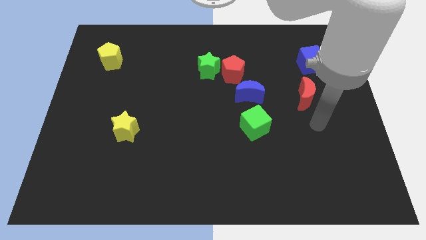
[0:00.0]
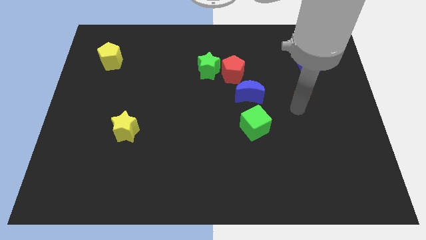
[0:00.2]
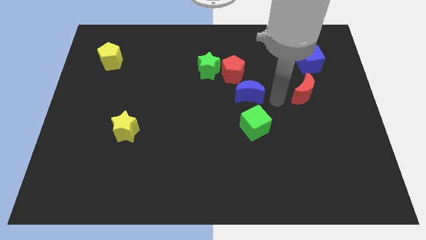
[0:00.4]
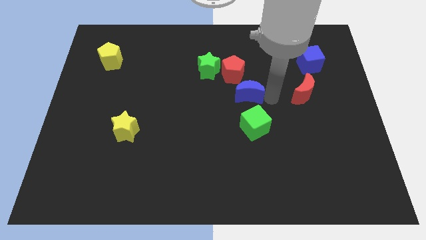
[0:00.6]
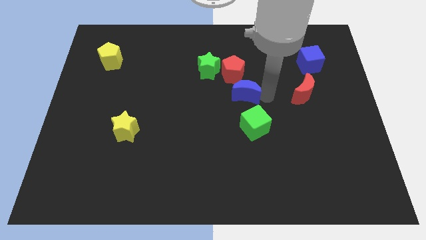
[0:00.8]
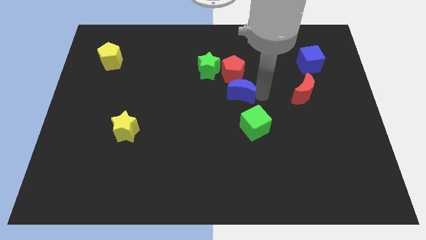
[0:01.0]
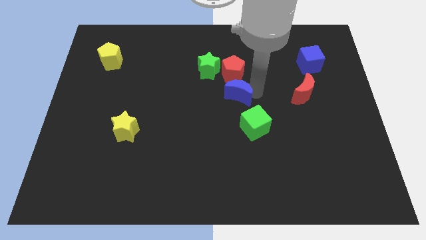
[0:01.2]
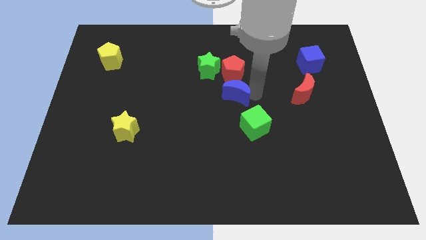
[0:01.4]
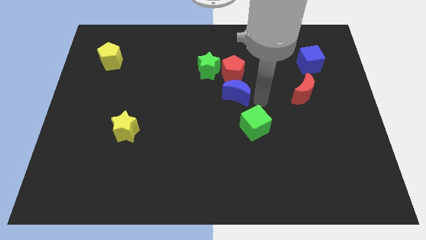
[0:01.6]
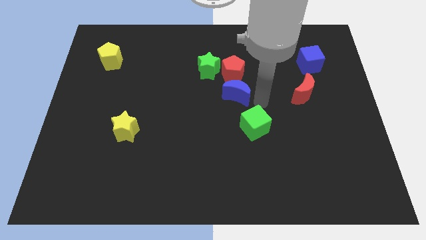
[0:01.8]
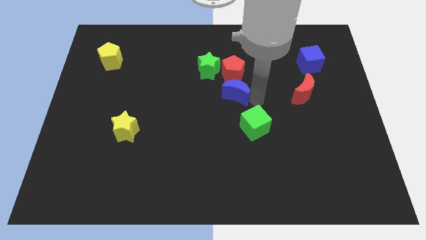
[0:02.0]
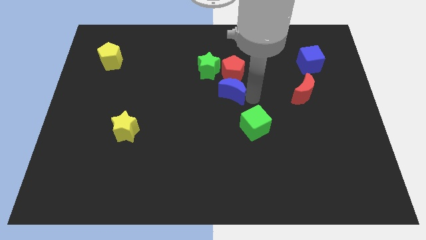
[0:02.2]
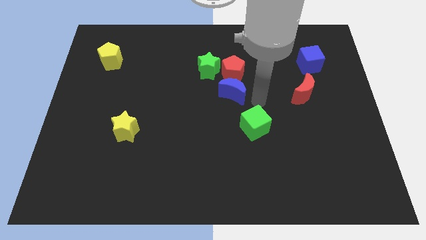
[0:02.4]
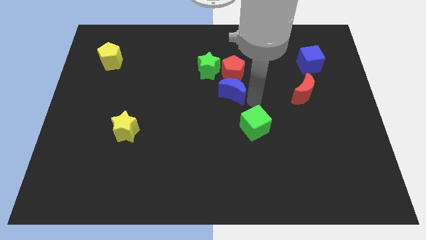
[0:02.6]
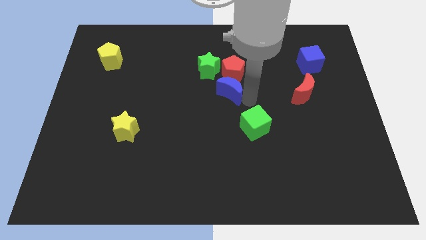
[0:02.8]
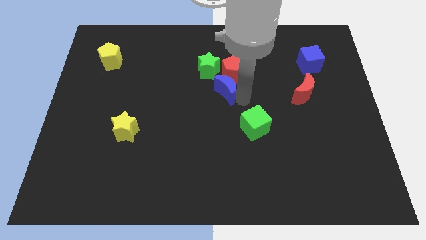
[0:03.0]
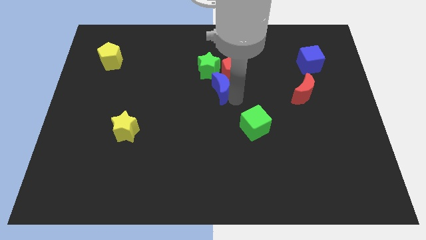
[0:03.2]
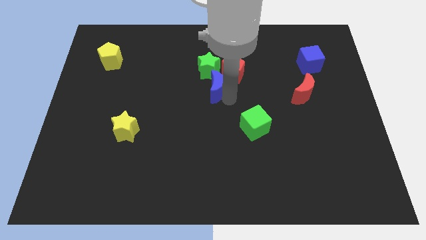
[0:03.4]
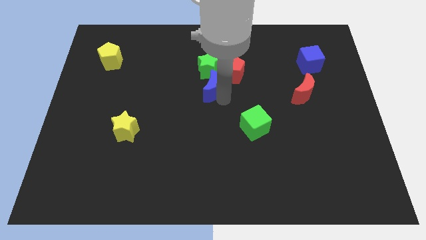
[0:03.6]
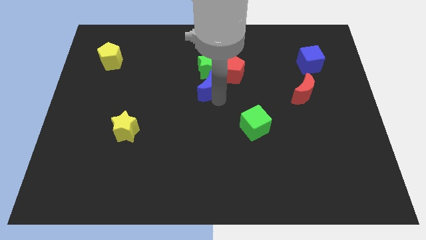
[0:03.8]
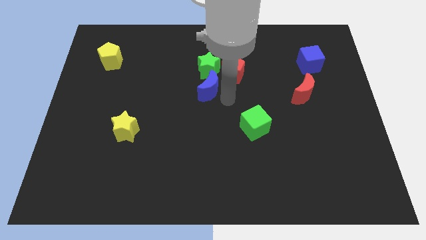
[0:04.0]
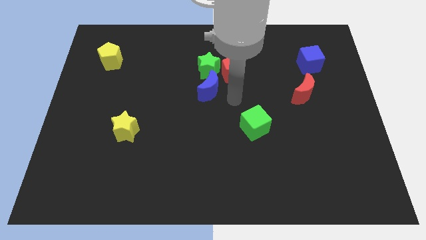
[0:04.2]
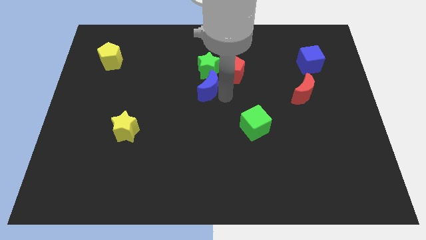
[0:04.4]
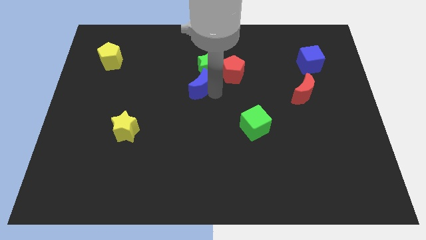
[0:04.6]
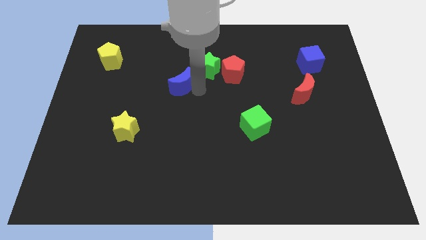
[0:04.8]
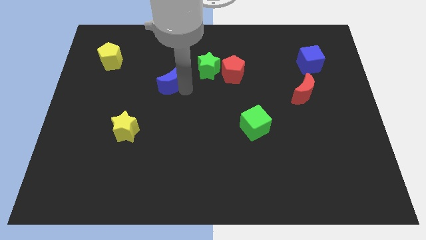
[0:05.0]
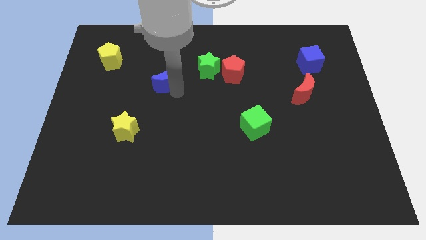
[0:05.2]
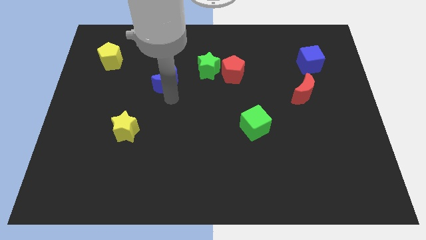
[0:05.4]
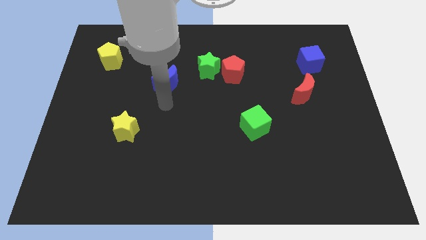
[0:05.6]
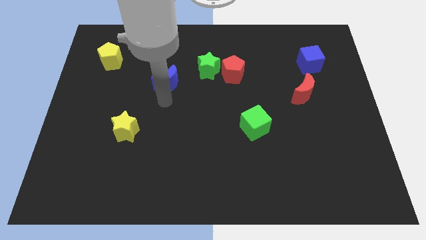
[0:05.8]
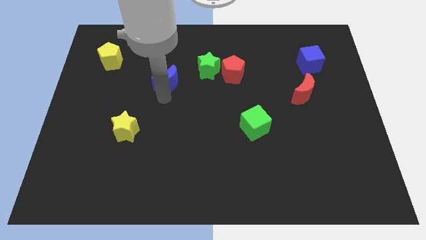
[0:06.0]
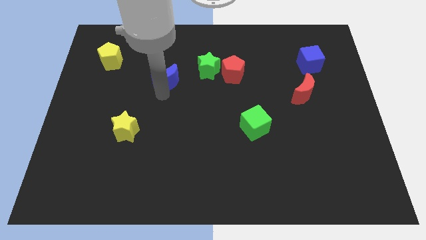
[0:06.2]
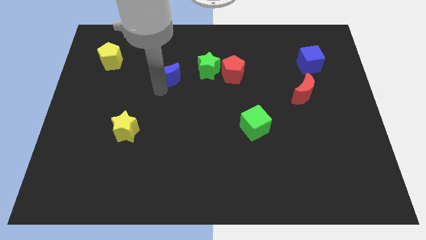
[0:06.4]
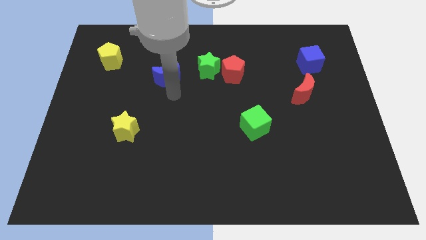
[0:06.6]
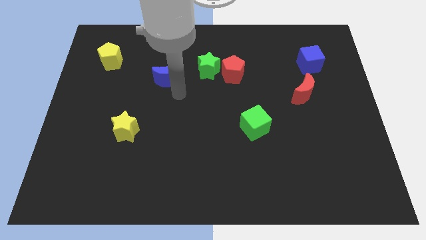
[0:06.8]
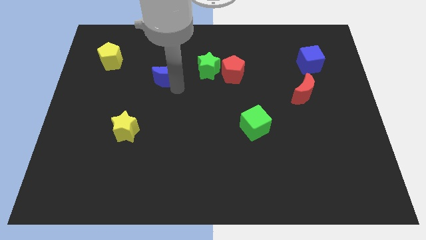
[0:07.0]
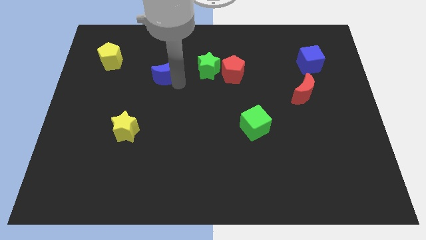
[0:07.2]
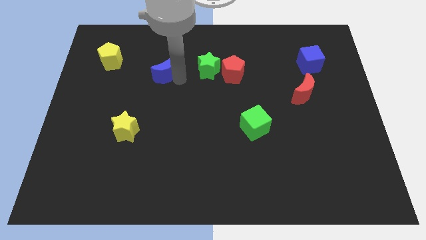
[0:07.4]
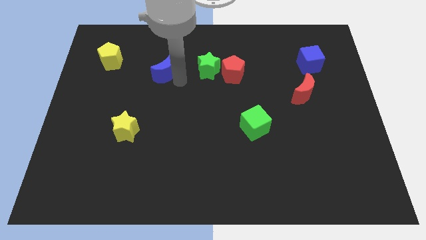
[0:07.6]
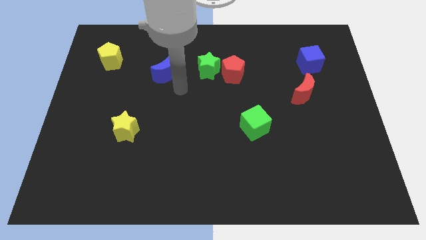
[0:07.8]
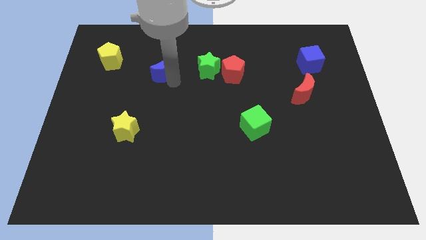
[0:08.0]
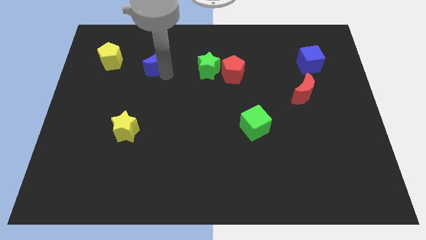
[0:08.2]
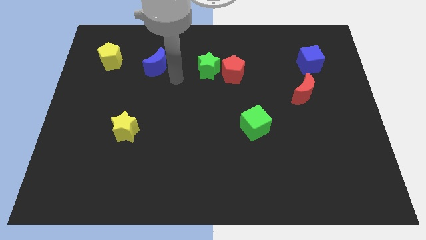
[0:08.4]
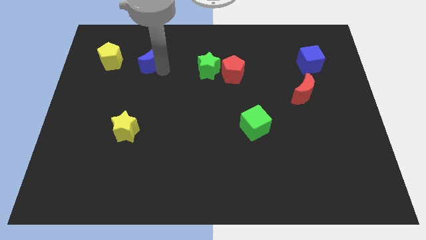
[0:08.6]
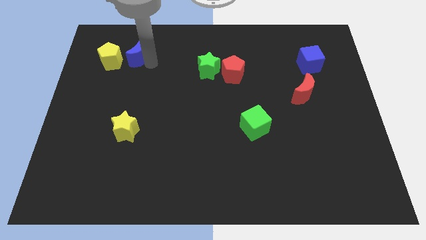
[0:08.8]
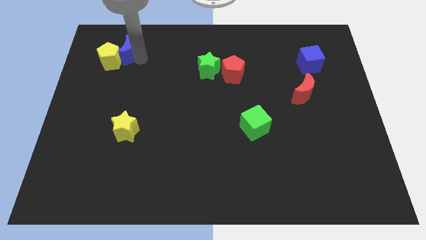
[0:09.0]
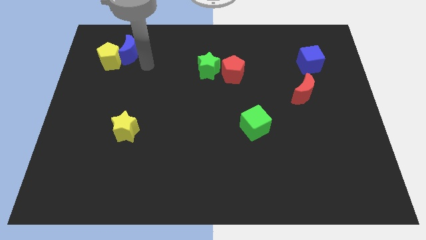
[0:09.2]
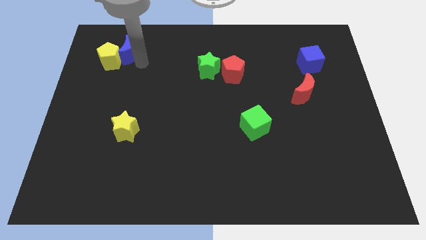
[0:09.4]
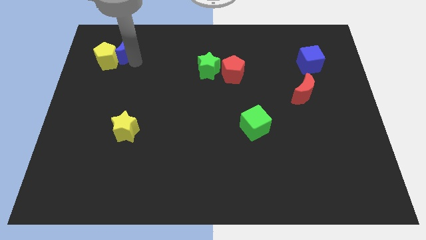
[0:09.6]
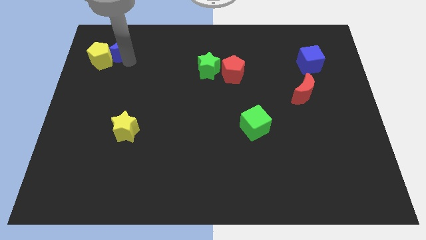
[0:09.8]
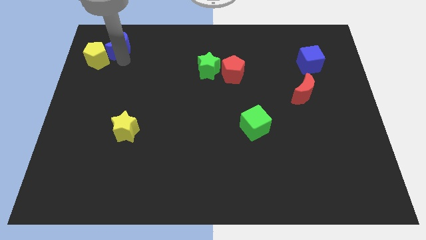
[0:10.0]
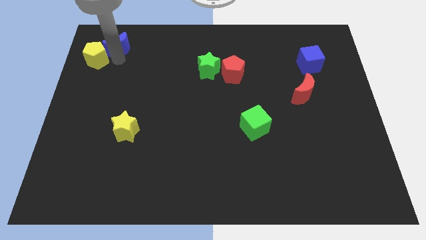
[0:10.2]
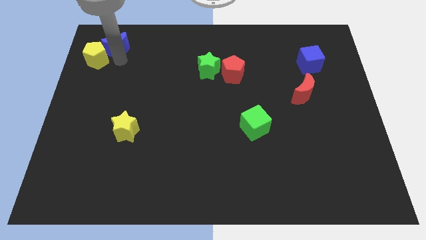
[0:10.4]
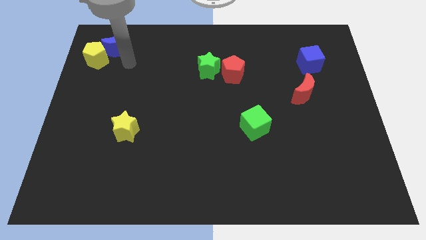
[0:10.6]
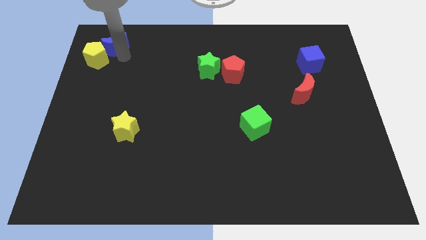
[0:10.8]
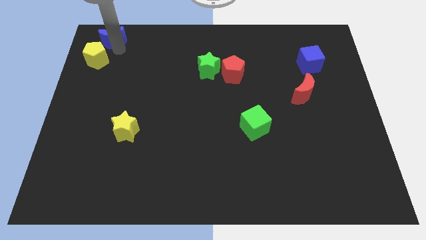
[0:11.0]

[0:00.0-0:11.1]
slide the blue moon to the upper left corner

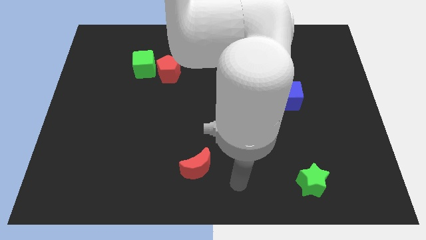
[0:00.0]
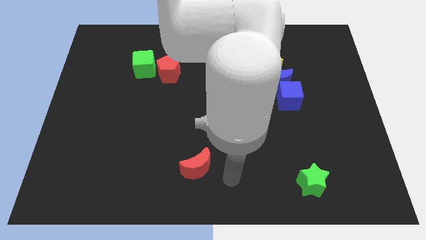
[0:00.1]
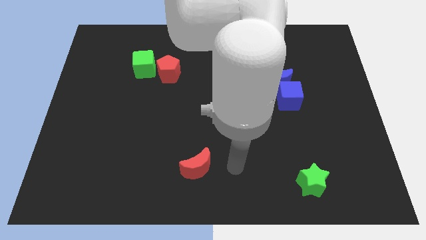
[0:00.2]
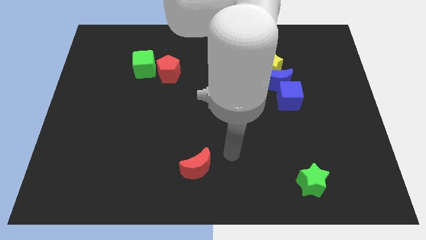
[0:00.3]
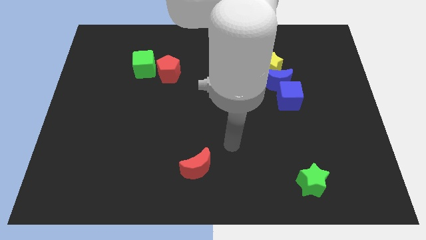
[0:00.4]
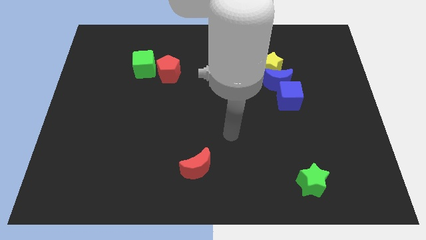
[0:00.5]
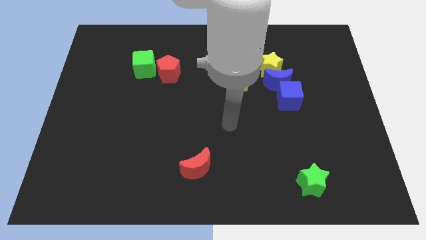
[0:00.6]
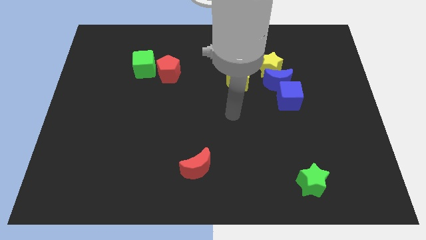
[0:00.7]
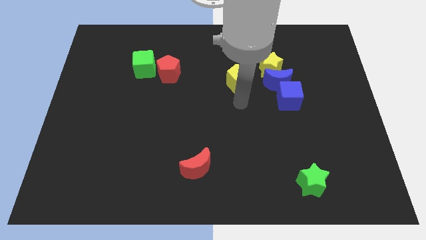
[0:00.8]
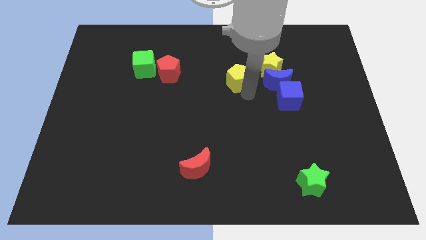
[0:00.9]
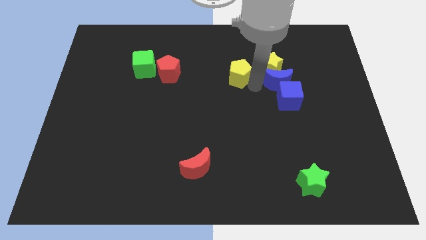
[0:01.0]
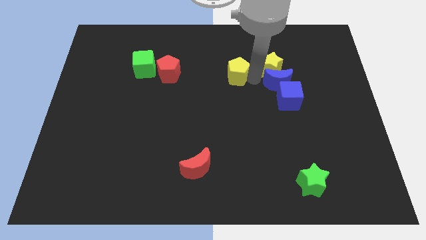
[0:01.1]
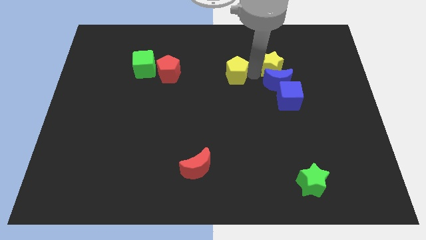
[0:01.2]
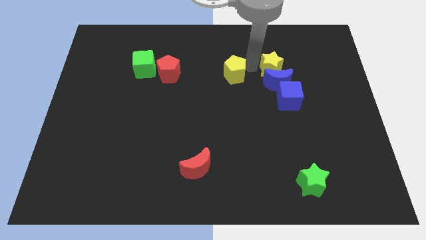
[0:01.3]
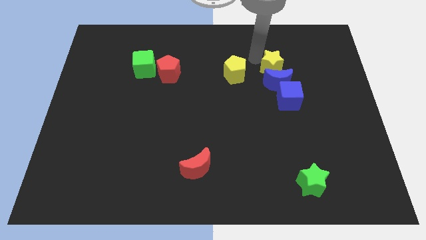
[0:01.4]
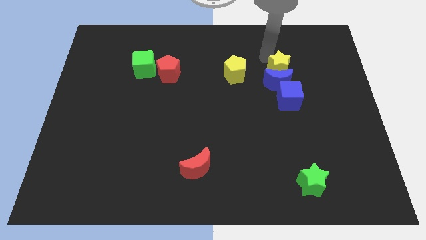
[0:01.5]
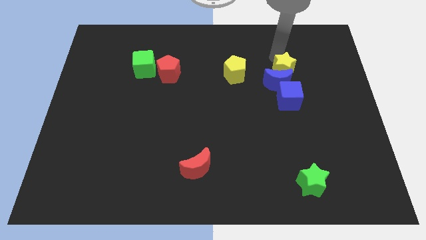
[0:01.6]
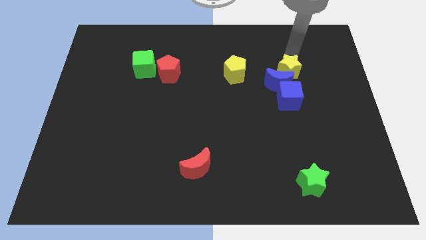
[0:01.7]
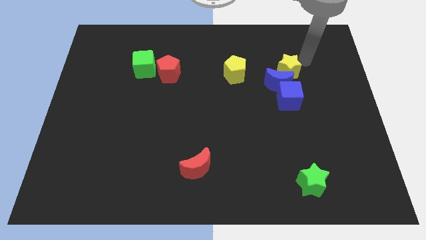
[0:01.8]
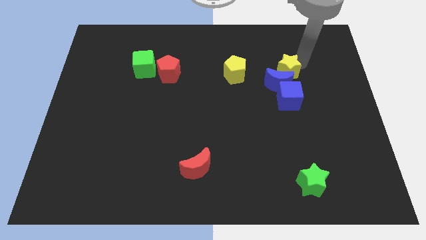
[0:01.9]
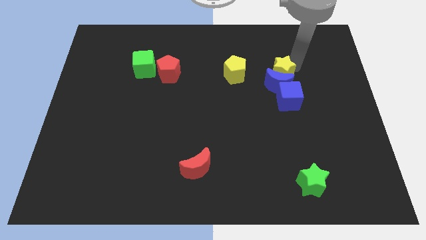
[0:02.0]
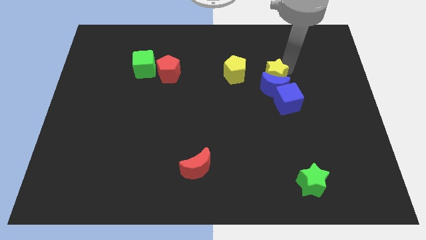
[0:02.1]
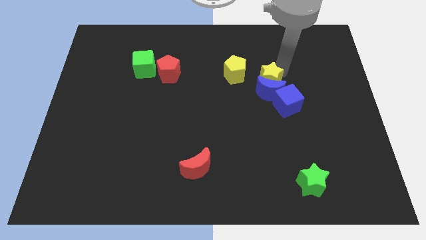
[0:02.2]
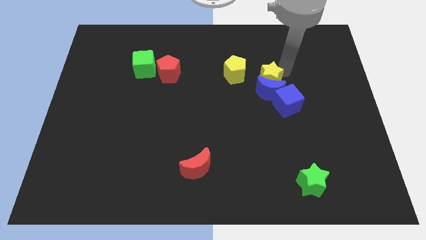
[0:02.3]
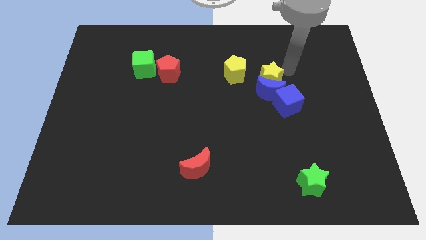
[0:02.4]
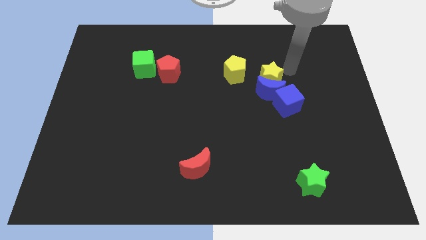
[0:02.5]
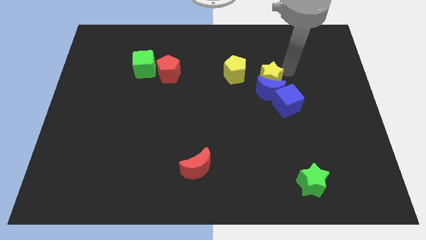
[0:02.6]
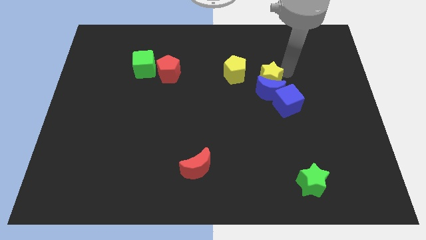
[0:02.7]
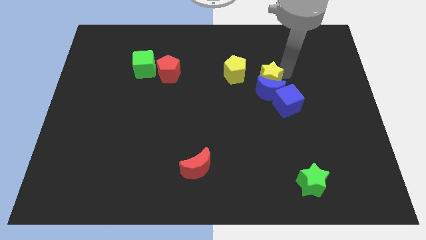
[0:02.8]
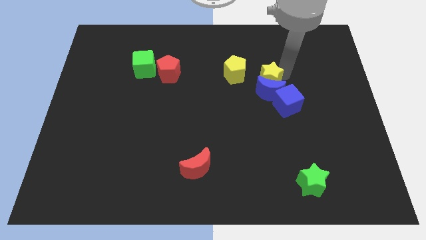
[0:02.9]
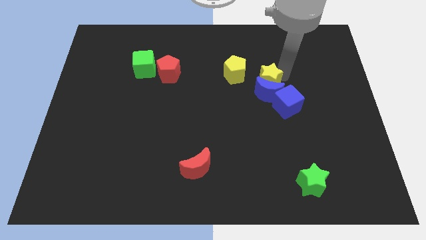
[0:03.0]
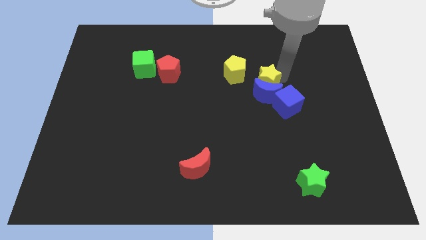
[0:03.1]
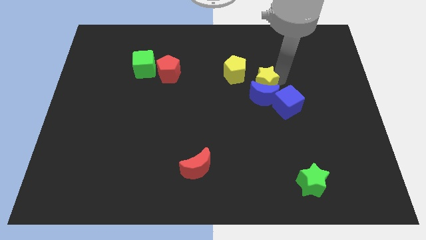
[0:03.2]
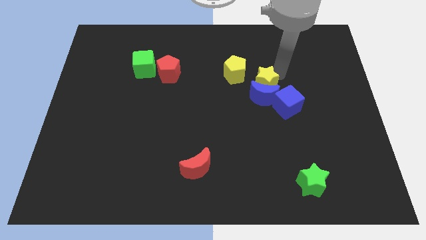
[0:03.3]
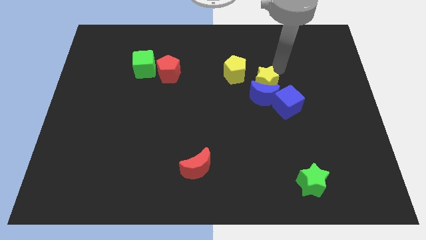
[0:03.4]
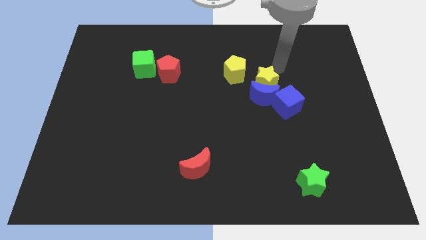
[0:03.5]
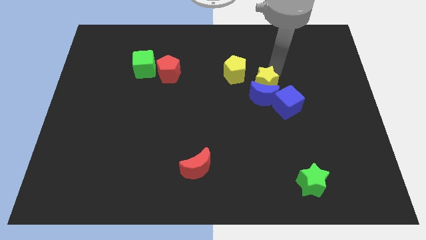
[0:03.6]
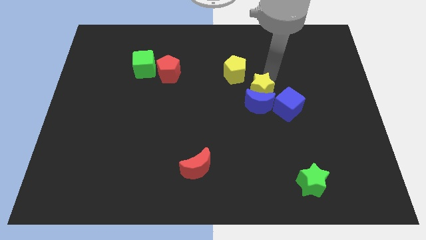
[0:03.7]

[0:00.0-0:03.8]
put the yellow star to the middle of the board
